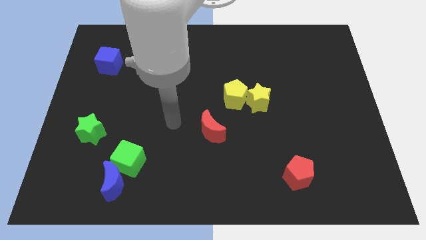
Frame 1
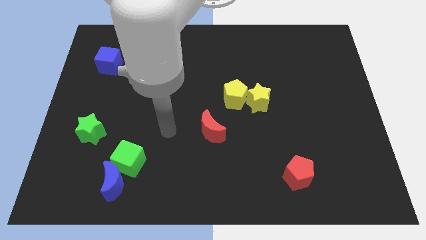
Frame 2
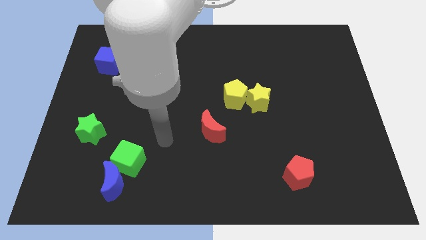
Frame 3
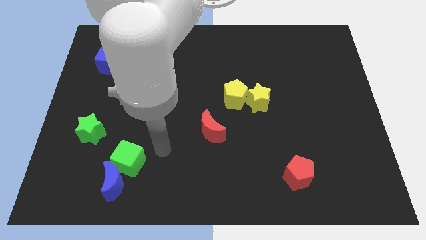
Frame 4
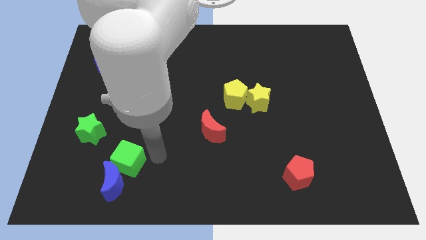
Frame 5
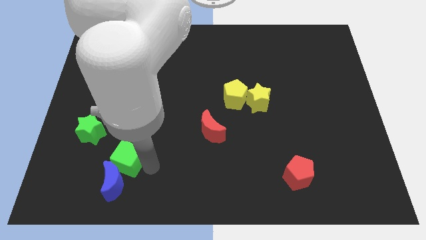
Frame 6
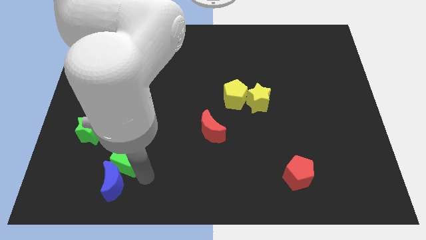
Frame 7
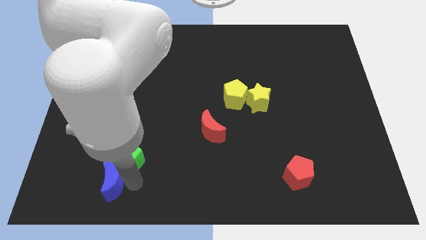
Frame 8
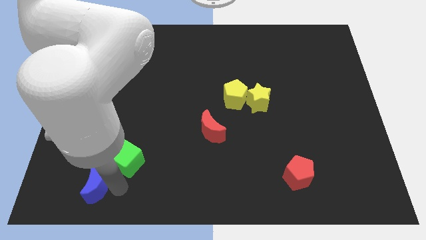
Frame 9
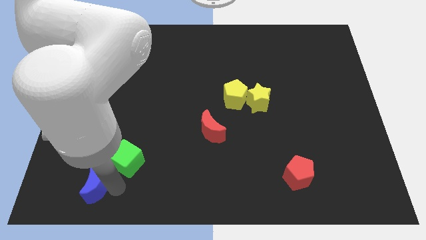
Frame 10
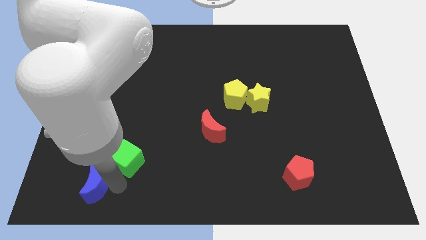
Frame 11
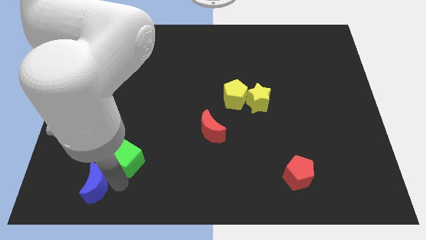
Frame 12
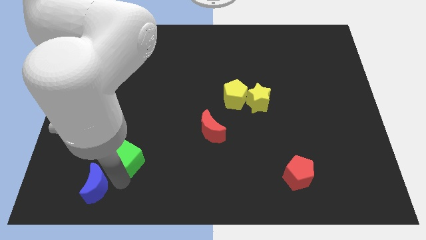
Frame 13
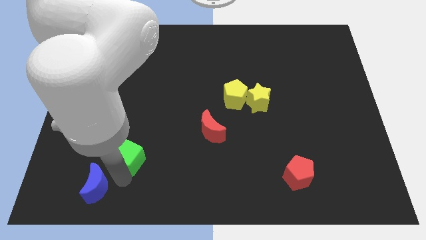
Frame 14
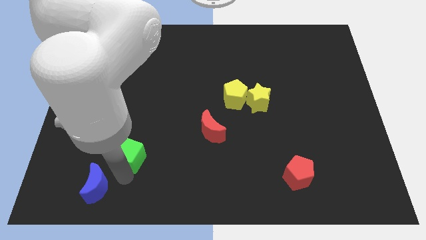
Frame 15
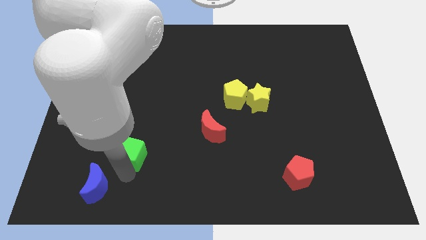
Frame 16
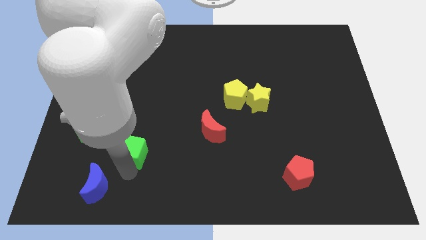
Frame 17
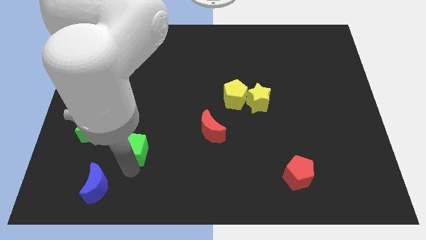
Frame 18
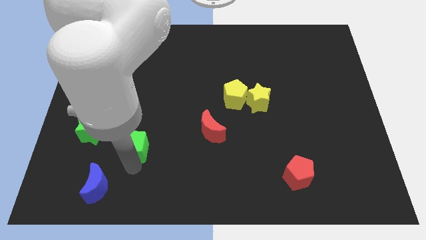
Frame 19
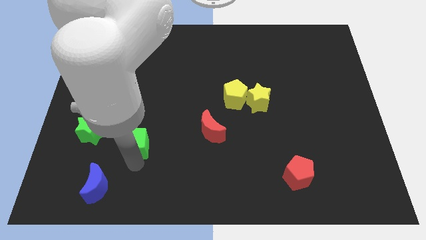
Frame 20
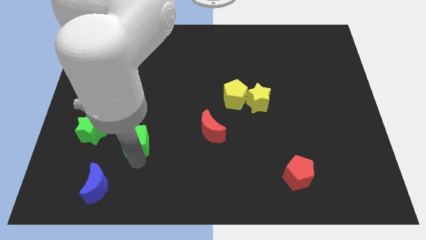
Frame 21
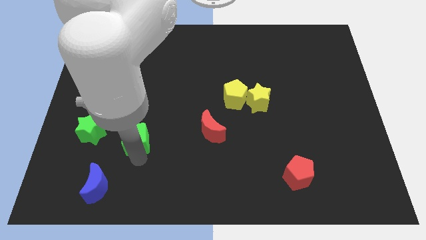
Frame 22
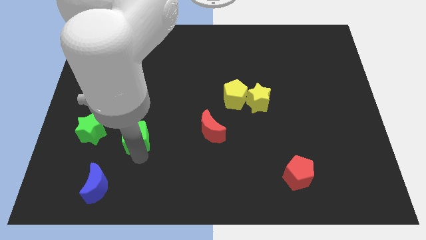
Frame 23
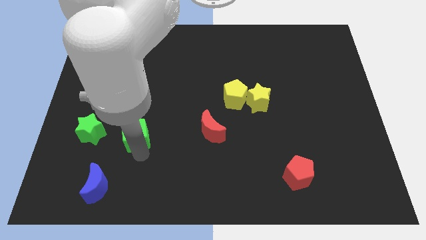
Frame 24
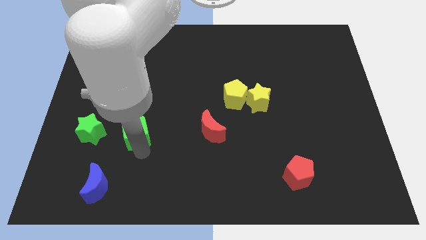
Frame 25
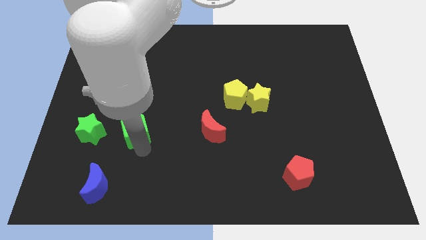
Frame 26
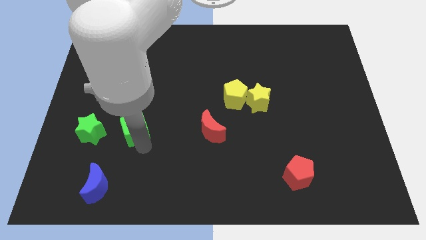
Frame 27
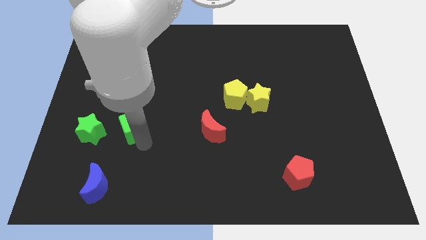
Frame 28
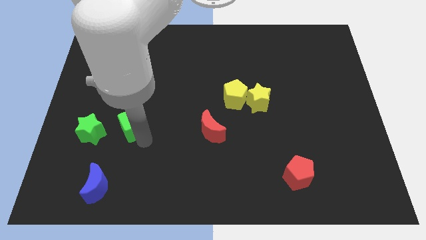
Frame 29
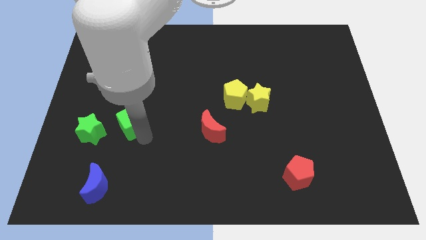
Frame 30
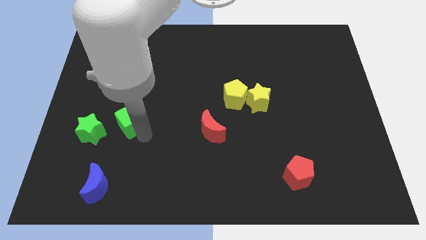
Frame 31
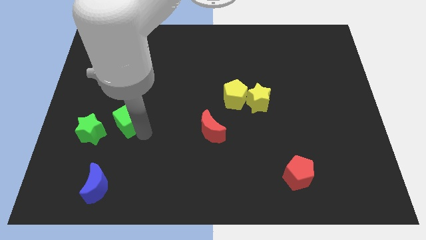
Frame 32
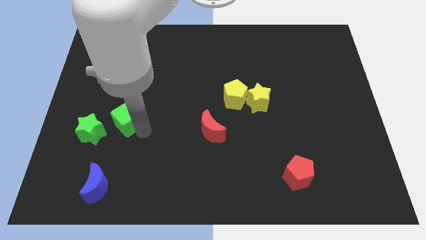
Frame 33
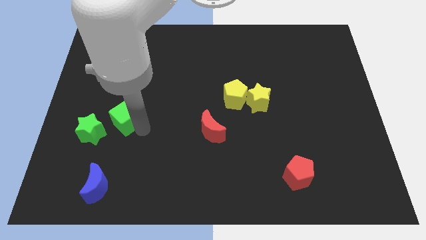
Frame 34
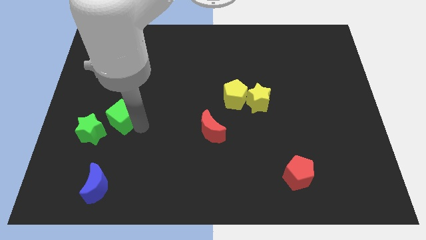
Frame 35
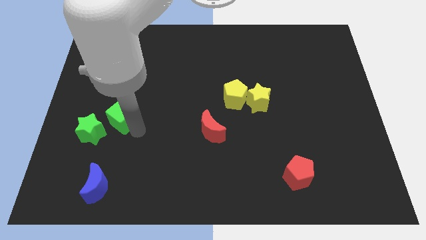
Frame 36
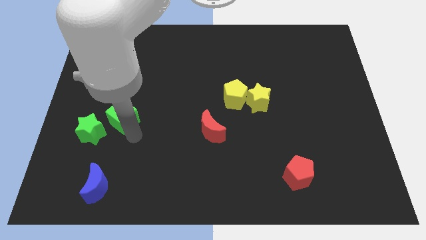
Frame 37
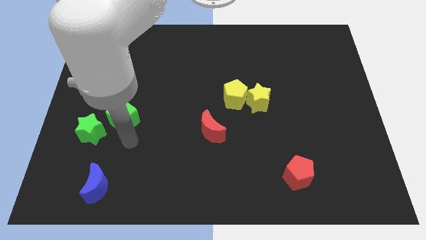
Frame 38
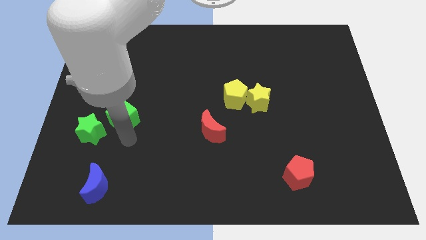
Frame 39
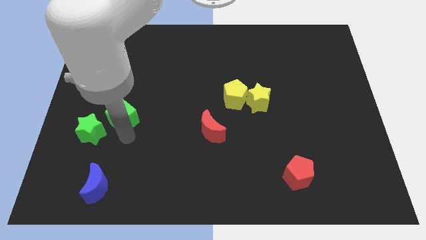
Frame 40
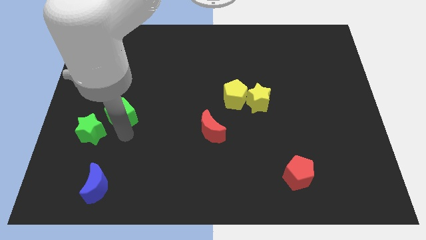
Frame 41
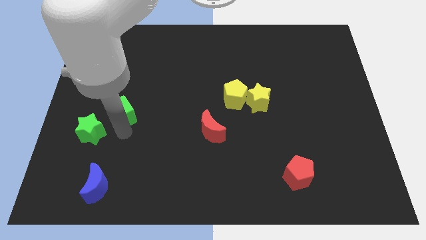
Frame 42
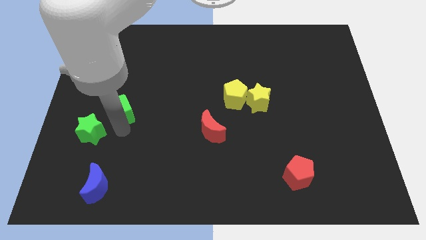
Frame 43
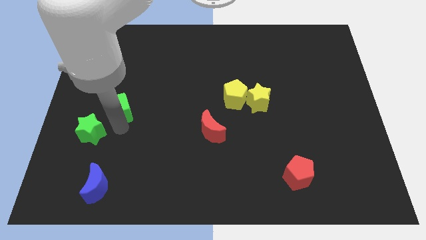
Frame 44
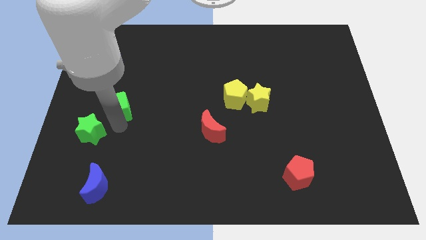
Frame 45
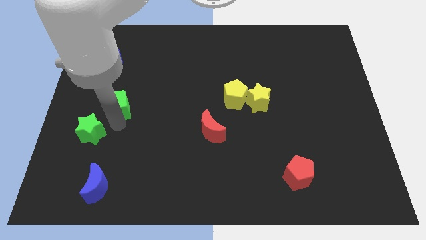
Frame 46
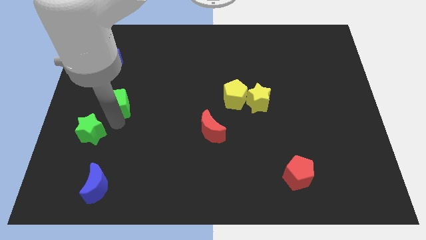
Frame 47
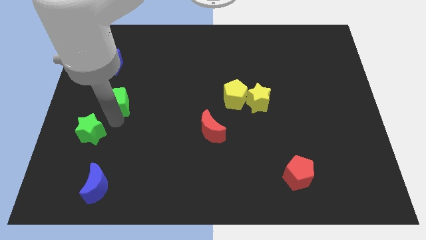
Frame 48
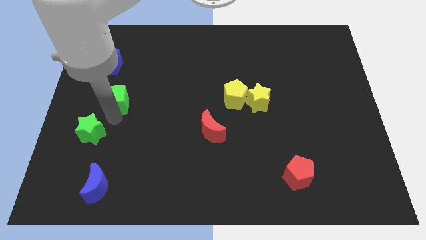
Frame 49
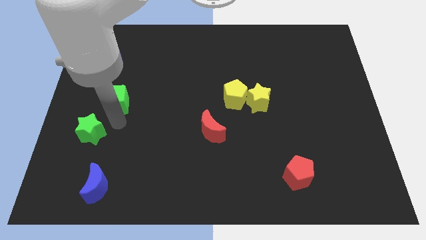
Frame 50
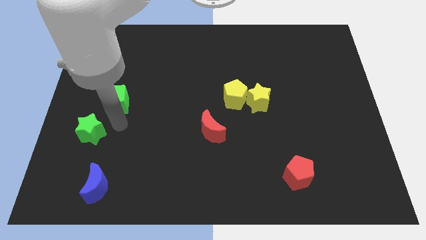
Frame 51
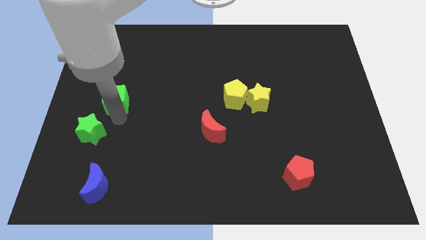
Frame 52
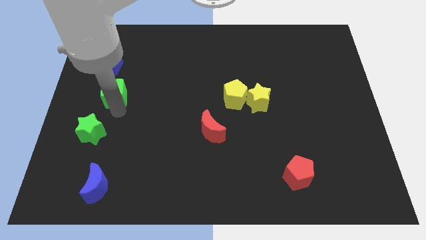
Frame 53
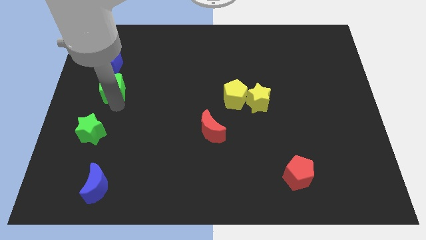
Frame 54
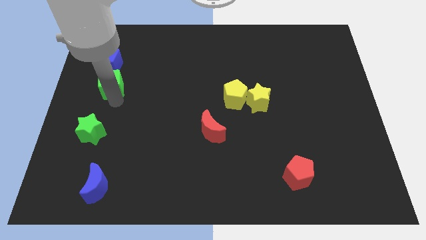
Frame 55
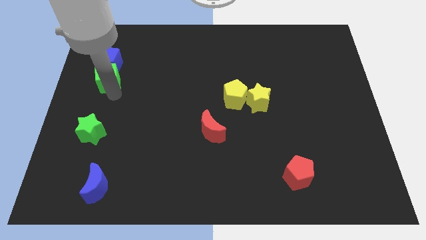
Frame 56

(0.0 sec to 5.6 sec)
push the green cube next to the blue cube

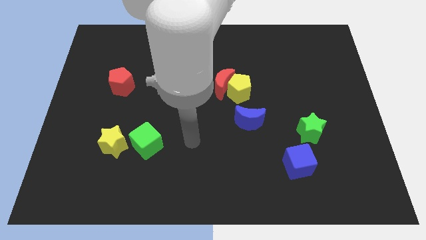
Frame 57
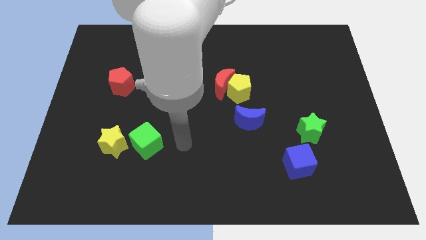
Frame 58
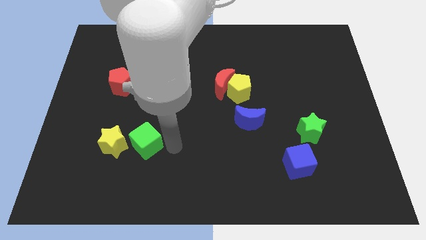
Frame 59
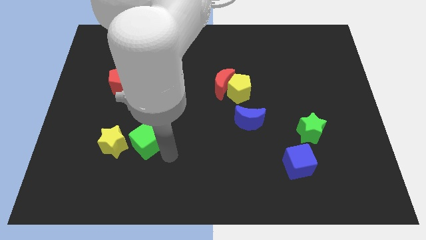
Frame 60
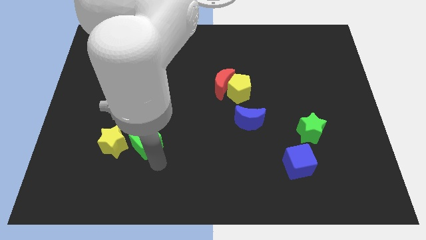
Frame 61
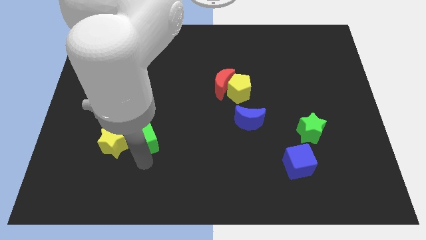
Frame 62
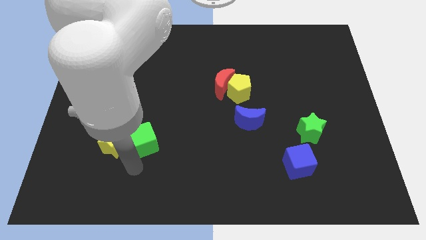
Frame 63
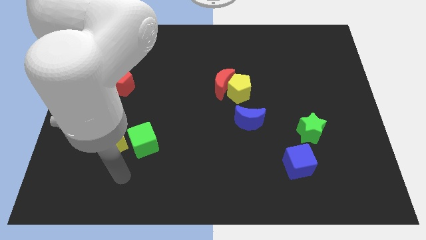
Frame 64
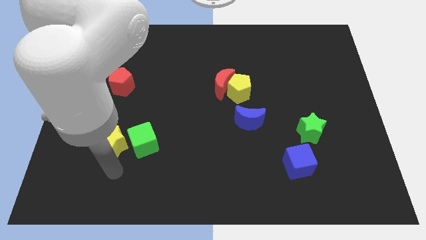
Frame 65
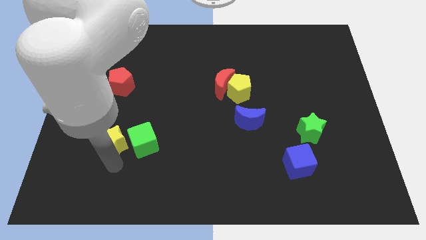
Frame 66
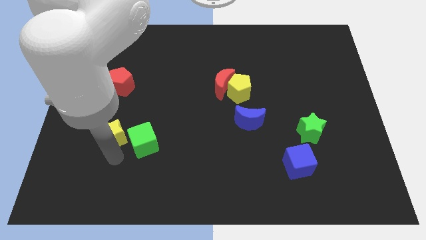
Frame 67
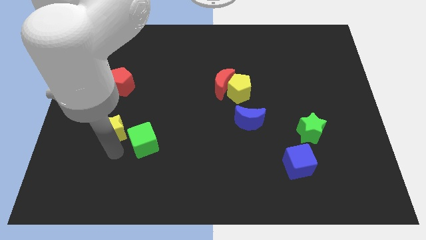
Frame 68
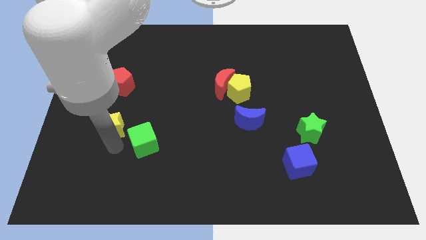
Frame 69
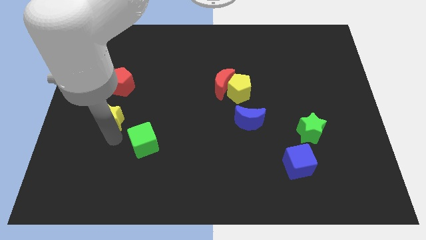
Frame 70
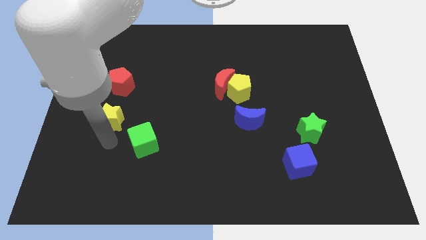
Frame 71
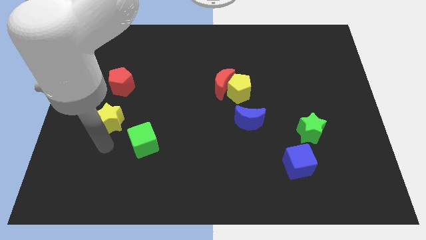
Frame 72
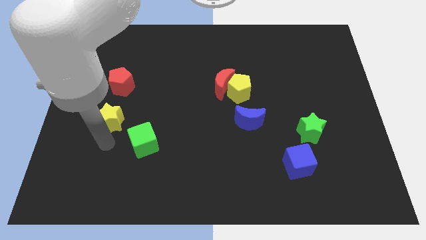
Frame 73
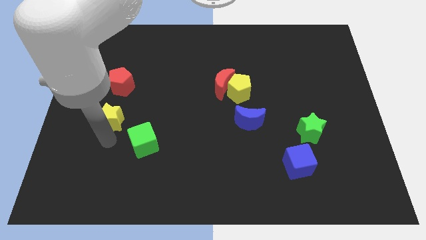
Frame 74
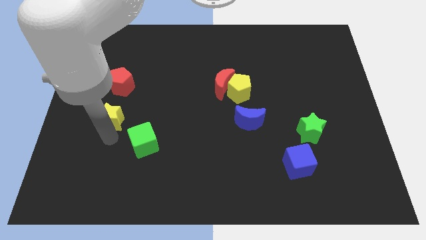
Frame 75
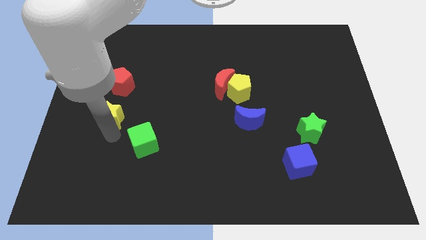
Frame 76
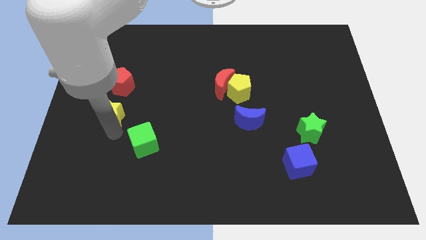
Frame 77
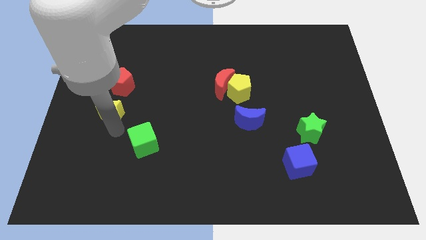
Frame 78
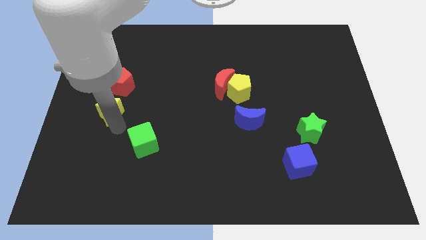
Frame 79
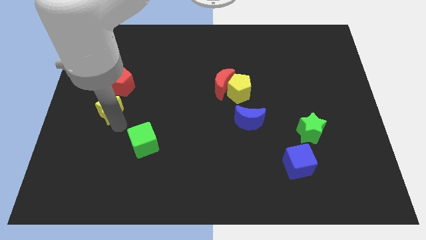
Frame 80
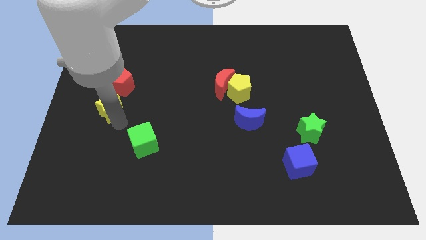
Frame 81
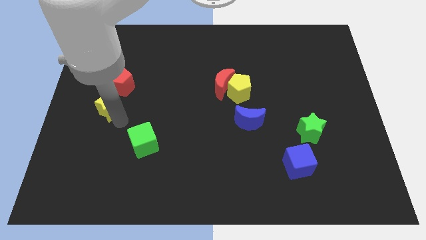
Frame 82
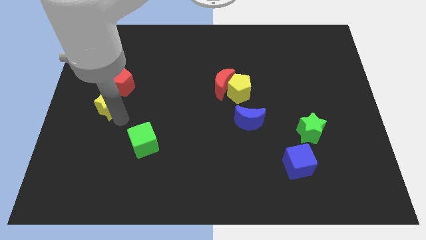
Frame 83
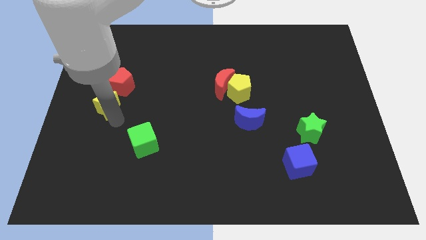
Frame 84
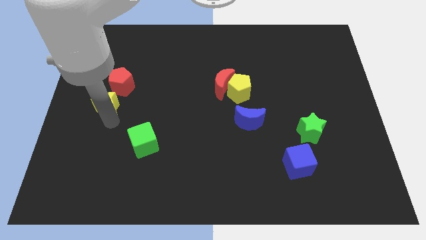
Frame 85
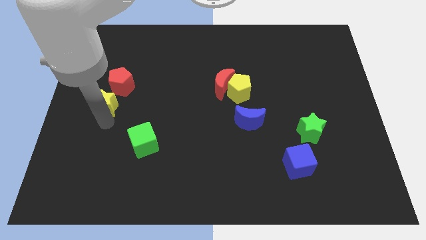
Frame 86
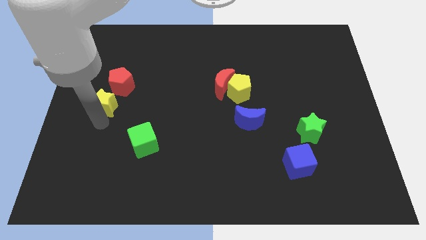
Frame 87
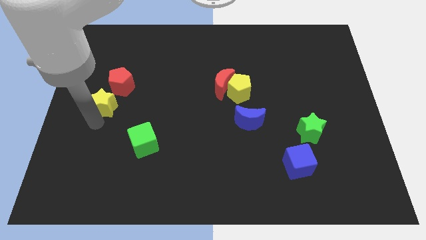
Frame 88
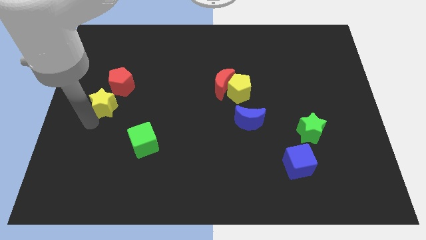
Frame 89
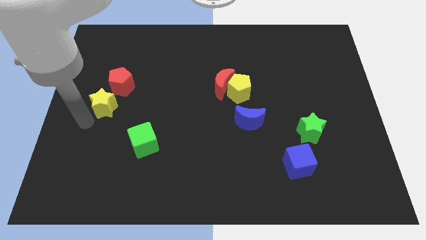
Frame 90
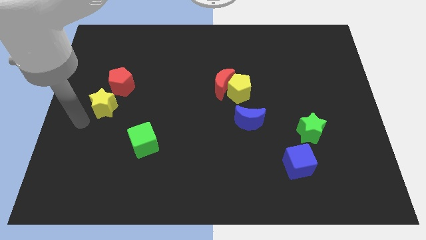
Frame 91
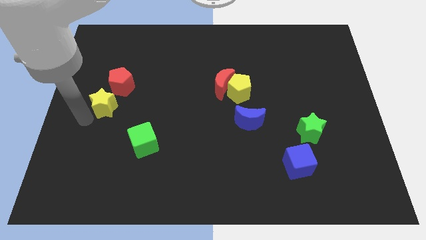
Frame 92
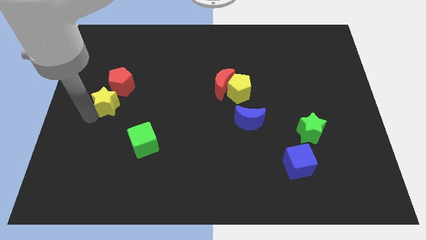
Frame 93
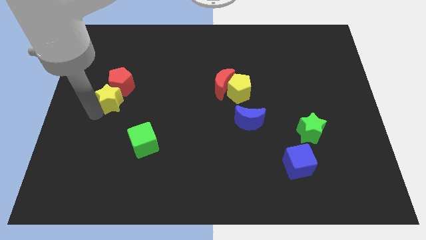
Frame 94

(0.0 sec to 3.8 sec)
push the yellow star towards the red pentagon
